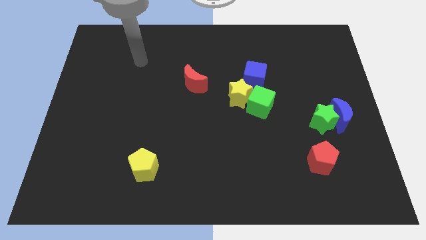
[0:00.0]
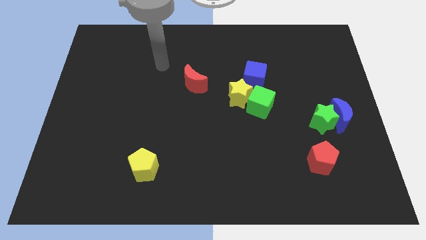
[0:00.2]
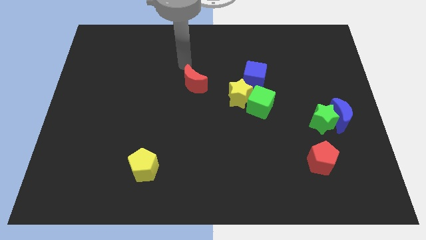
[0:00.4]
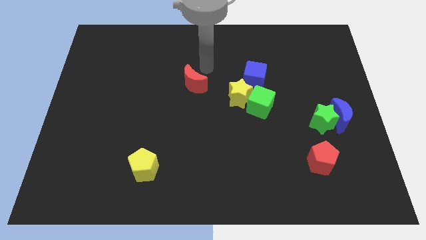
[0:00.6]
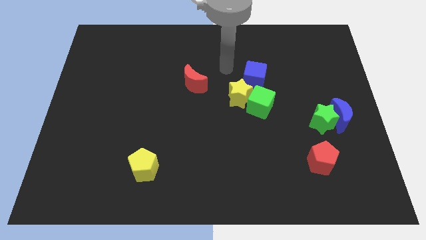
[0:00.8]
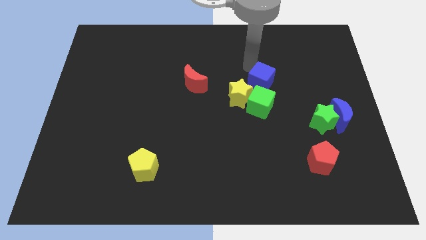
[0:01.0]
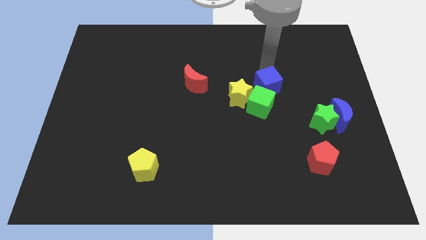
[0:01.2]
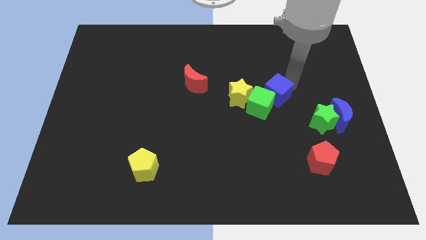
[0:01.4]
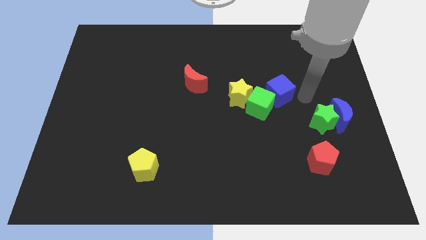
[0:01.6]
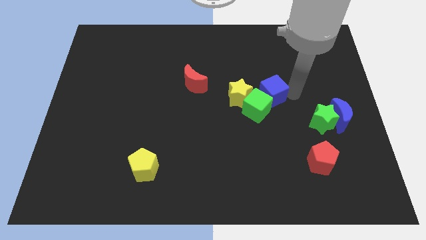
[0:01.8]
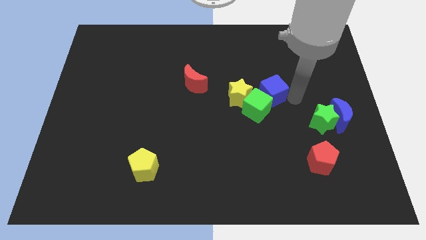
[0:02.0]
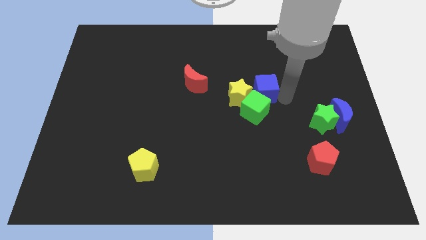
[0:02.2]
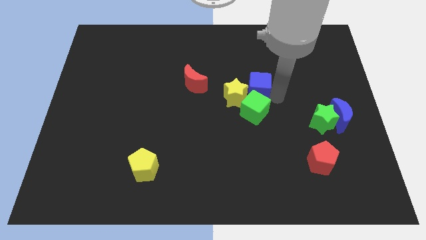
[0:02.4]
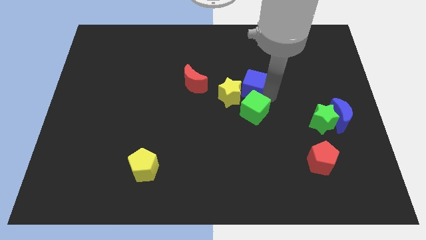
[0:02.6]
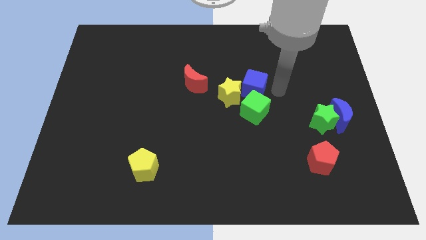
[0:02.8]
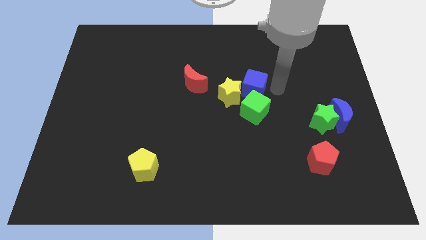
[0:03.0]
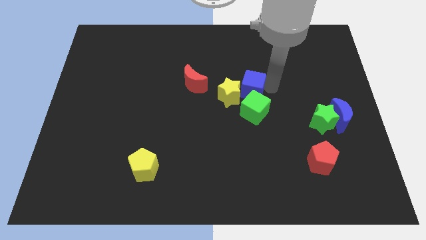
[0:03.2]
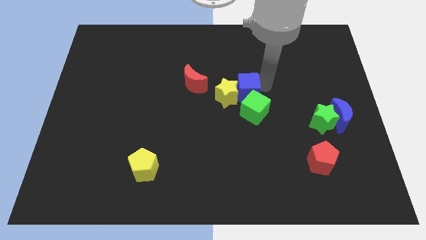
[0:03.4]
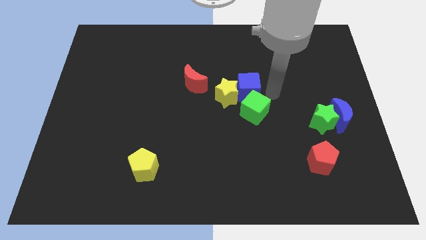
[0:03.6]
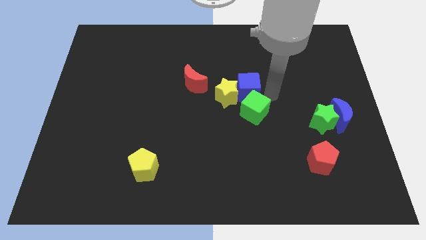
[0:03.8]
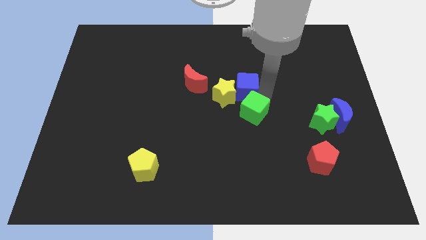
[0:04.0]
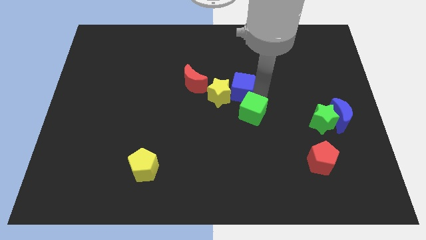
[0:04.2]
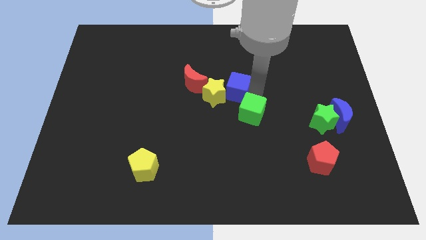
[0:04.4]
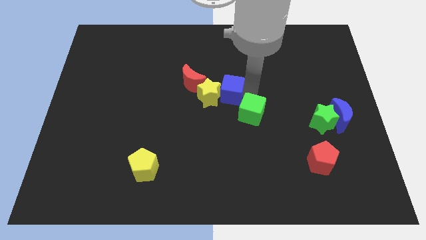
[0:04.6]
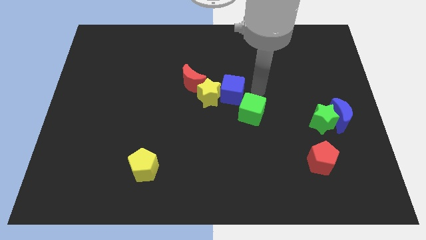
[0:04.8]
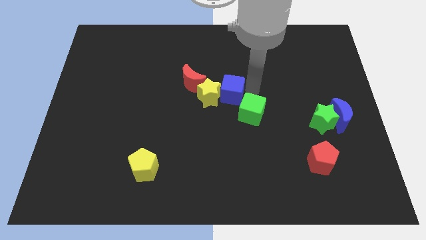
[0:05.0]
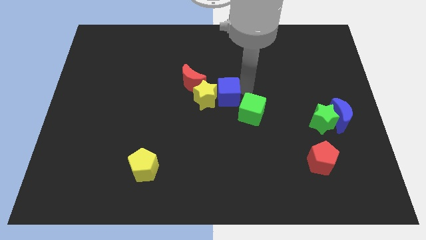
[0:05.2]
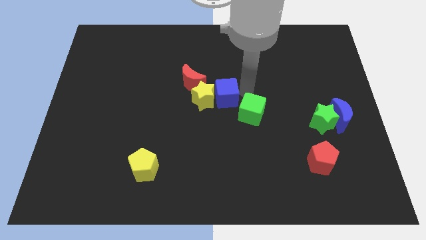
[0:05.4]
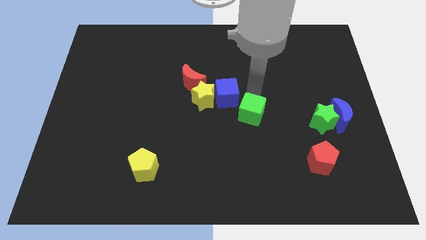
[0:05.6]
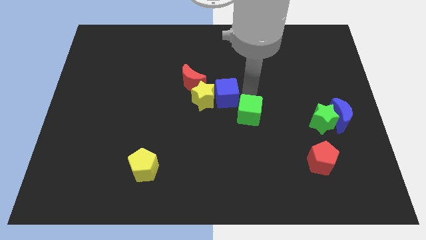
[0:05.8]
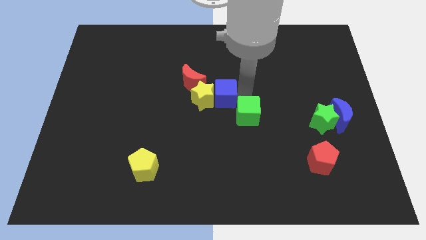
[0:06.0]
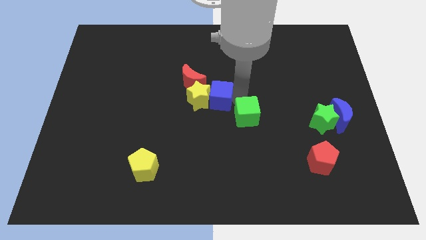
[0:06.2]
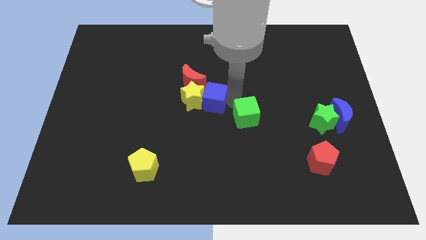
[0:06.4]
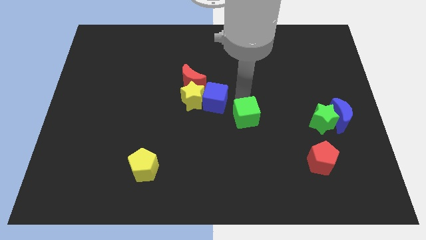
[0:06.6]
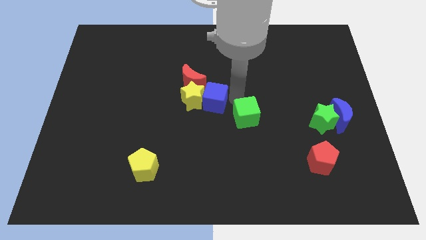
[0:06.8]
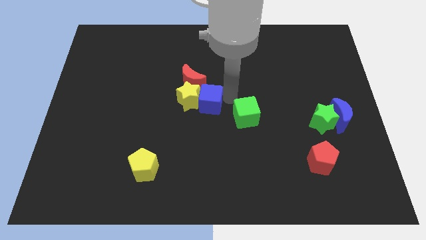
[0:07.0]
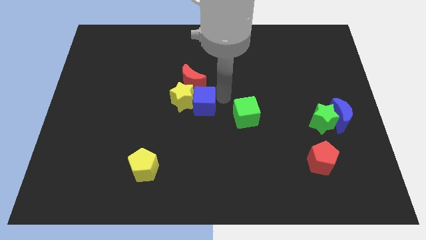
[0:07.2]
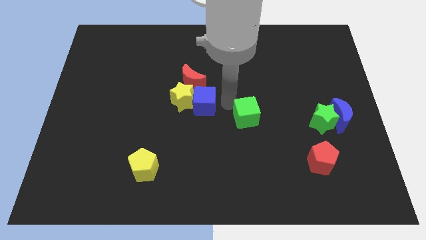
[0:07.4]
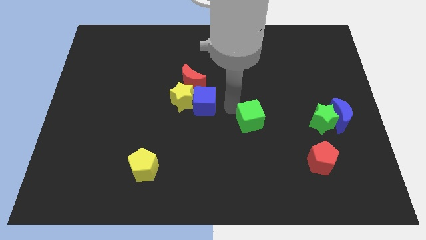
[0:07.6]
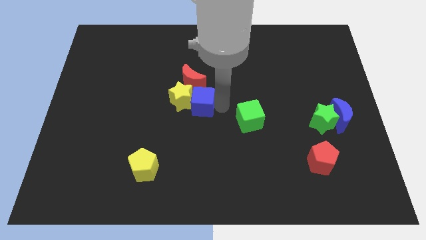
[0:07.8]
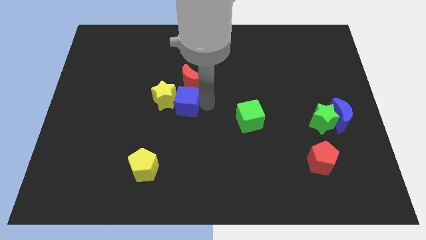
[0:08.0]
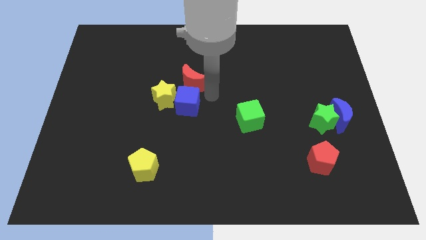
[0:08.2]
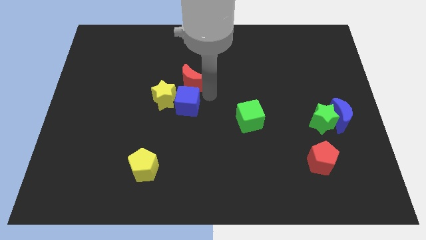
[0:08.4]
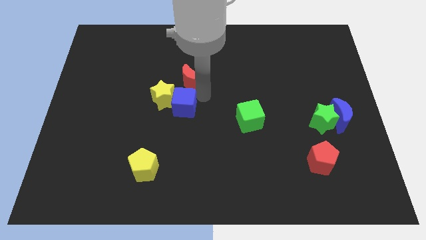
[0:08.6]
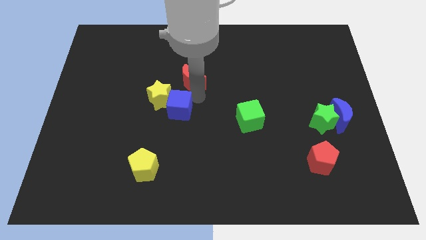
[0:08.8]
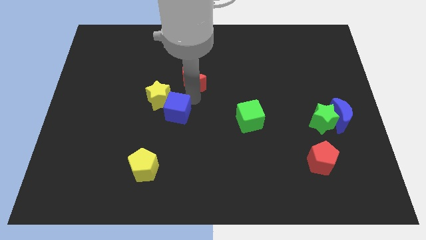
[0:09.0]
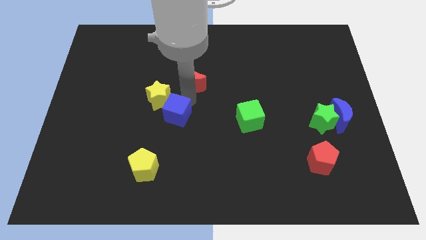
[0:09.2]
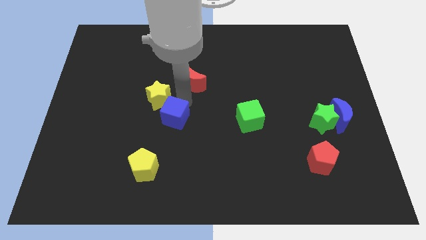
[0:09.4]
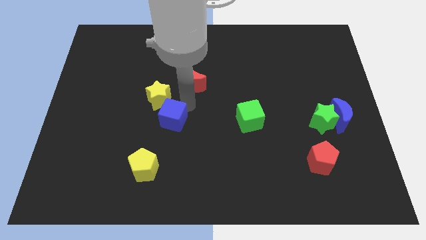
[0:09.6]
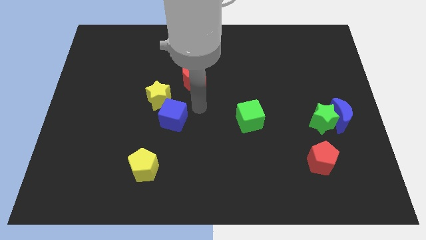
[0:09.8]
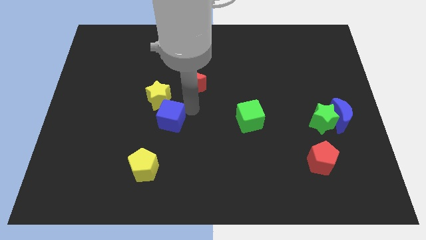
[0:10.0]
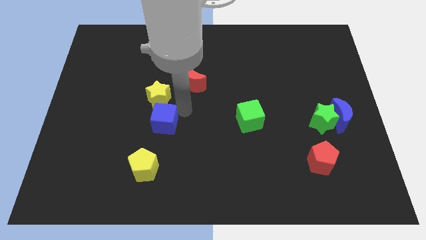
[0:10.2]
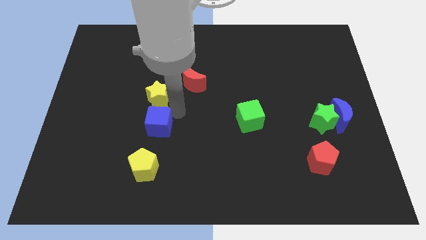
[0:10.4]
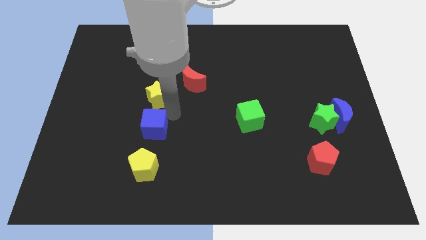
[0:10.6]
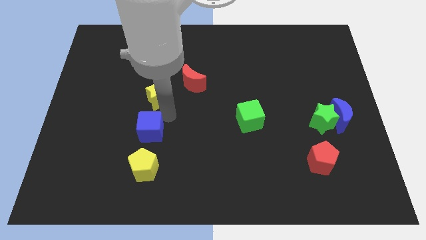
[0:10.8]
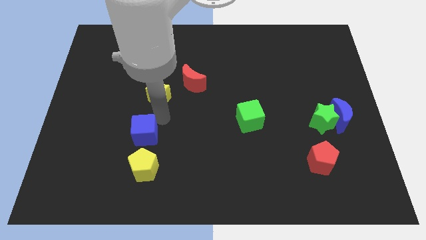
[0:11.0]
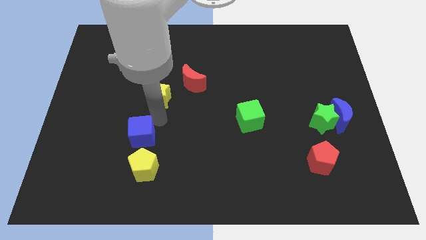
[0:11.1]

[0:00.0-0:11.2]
put the blue cube to the top left side of the yellow pentagon

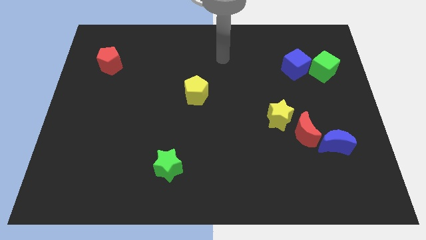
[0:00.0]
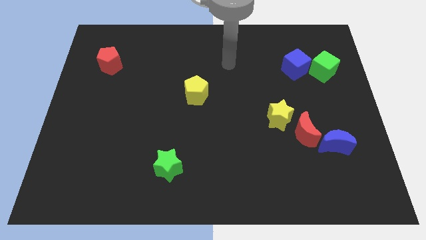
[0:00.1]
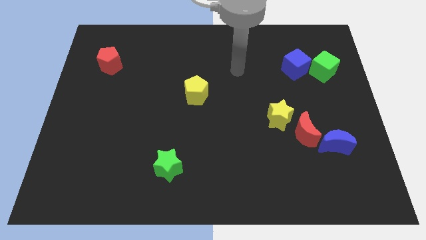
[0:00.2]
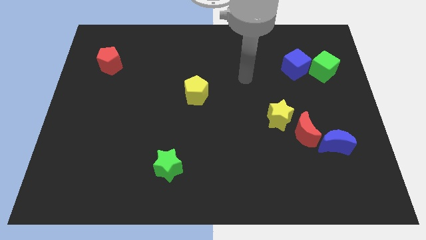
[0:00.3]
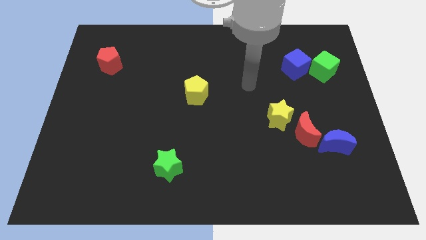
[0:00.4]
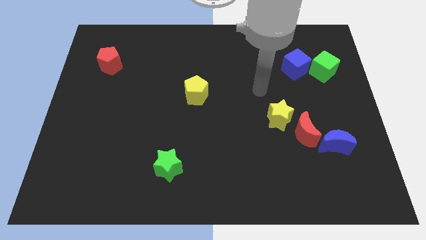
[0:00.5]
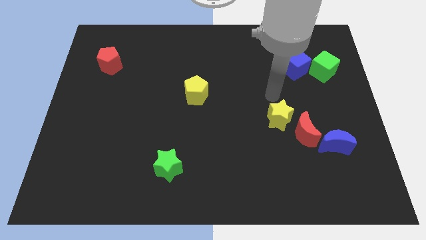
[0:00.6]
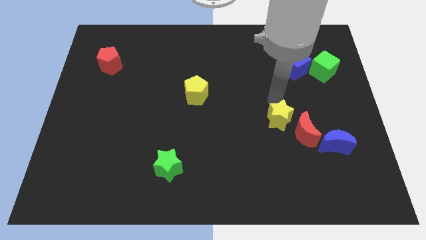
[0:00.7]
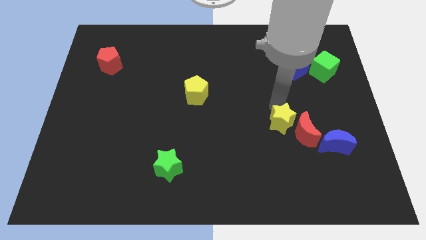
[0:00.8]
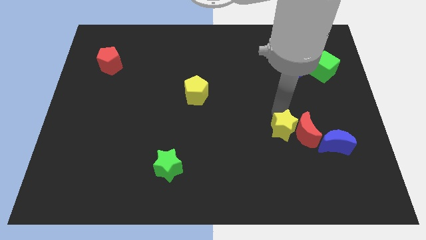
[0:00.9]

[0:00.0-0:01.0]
push the yellow star left of the blue moon
